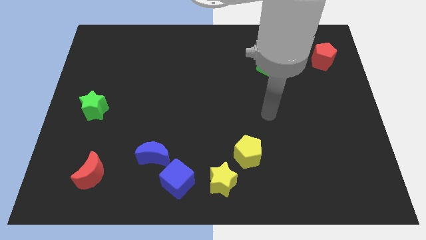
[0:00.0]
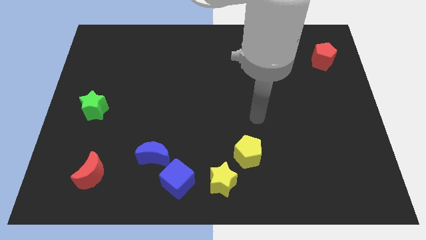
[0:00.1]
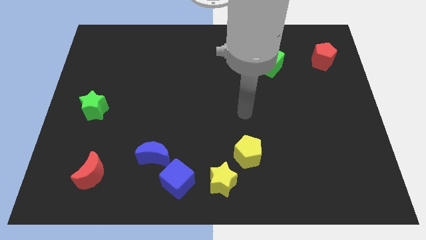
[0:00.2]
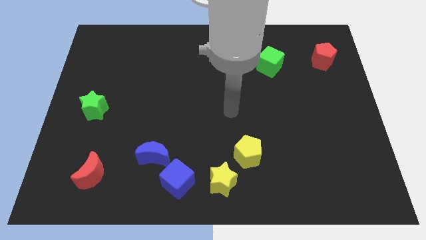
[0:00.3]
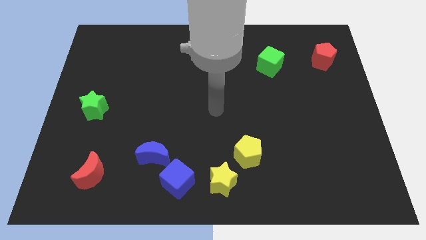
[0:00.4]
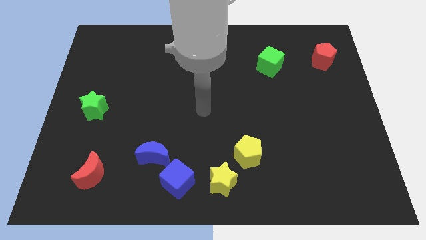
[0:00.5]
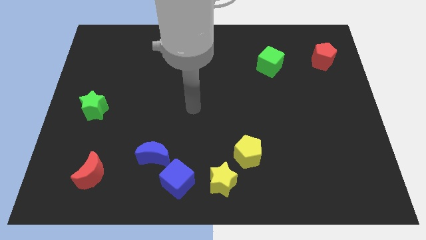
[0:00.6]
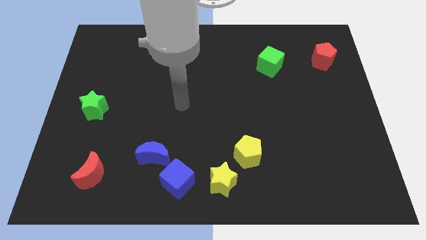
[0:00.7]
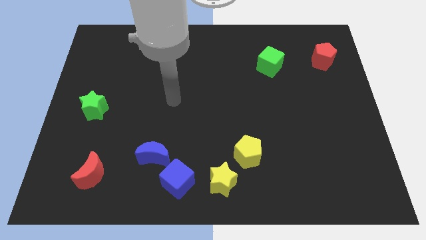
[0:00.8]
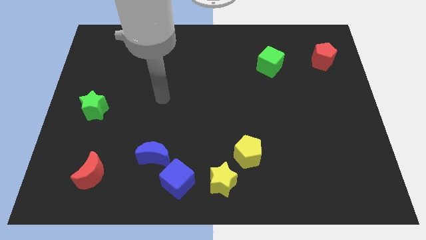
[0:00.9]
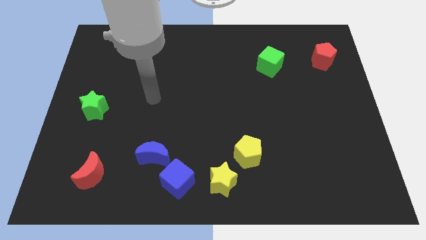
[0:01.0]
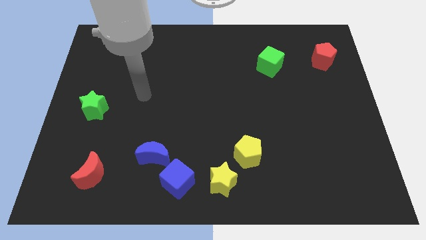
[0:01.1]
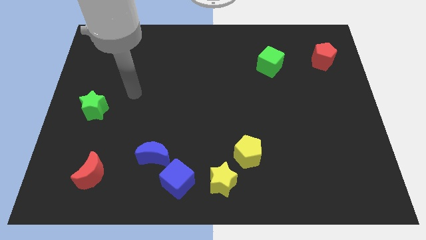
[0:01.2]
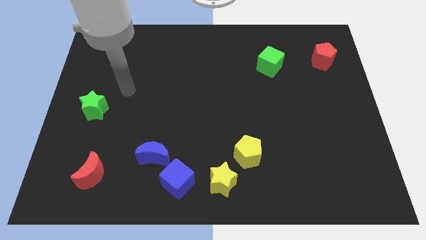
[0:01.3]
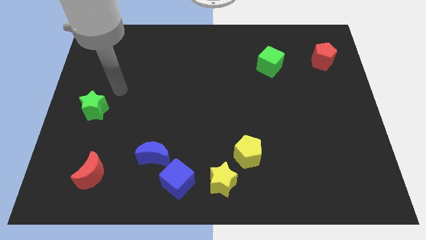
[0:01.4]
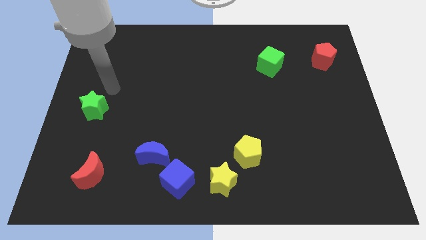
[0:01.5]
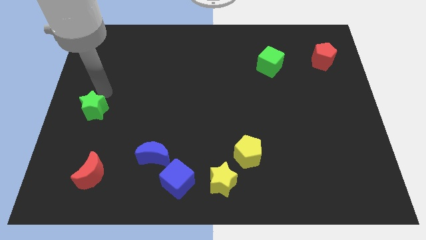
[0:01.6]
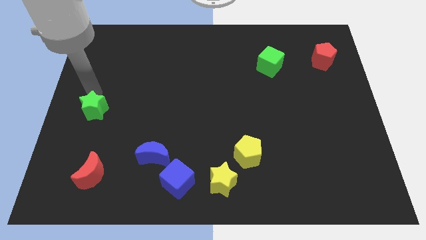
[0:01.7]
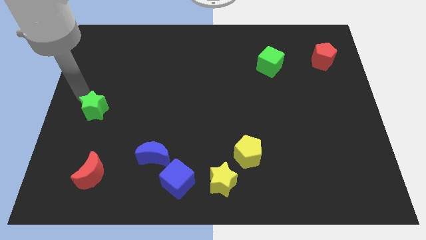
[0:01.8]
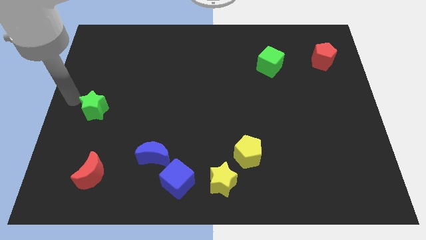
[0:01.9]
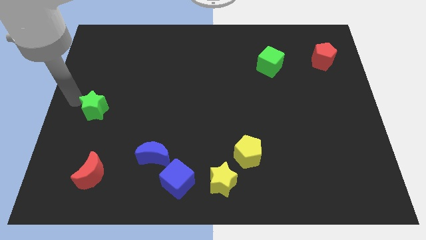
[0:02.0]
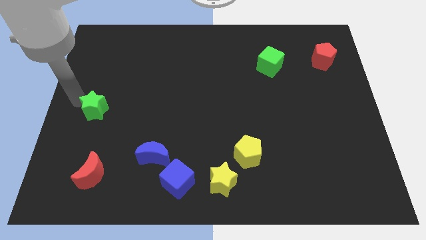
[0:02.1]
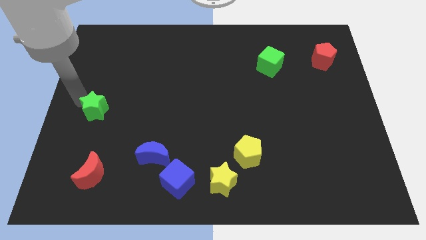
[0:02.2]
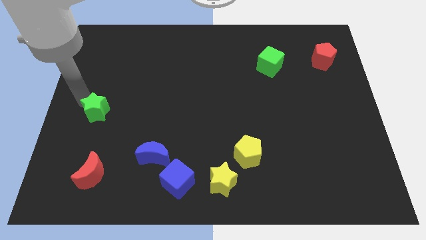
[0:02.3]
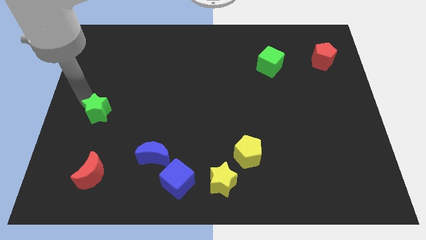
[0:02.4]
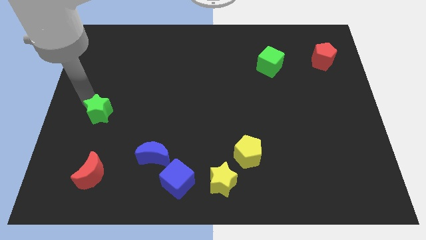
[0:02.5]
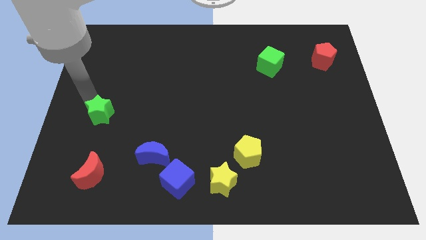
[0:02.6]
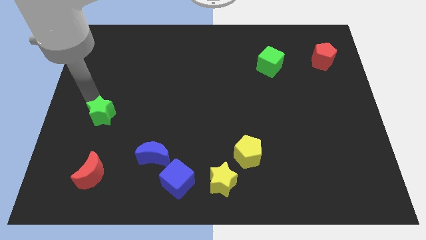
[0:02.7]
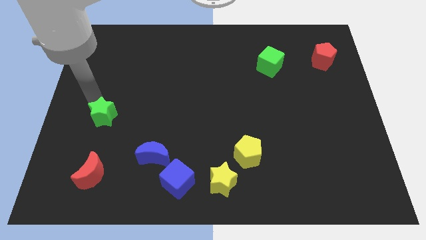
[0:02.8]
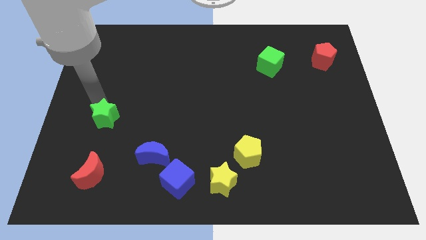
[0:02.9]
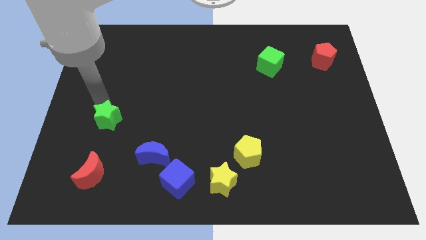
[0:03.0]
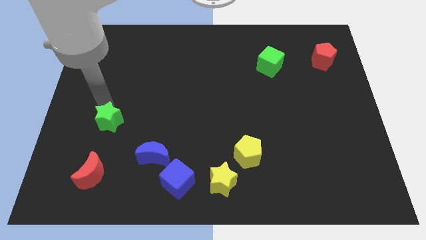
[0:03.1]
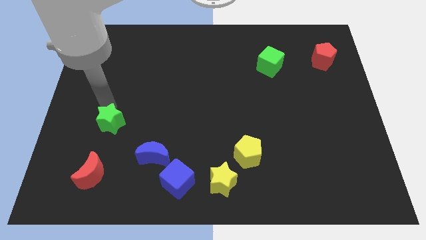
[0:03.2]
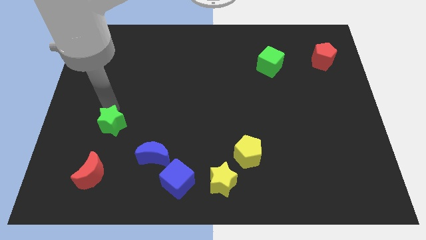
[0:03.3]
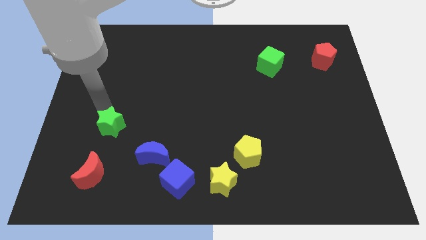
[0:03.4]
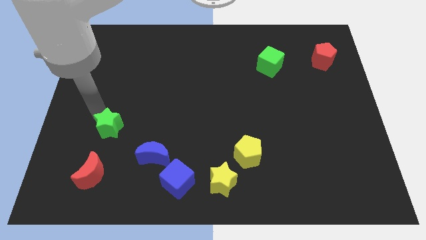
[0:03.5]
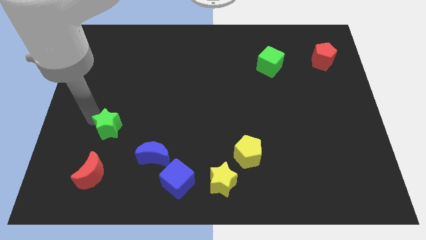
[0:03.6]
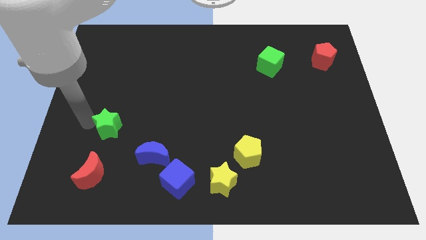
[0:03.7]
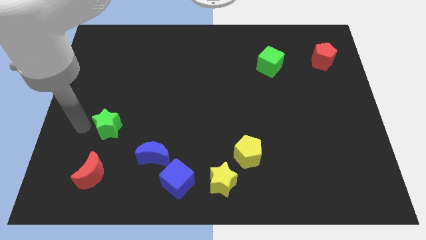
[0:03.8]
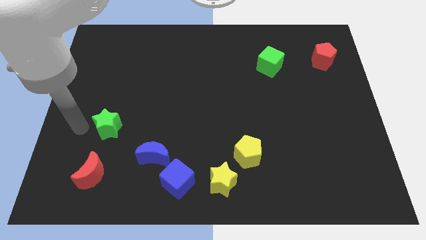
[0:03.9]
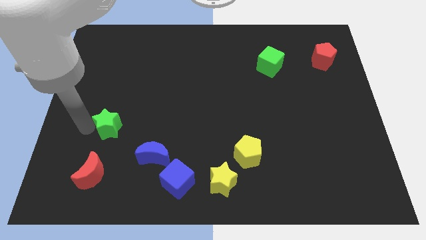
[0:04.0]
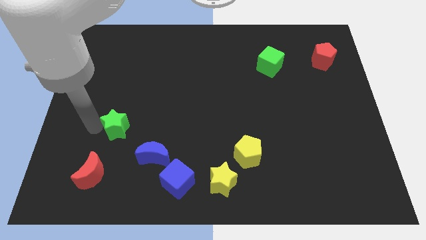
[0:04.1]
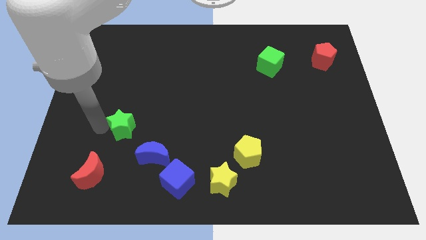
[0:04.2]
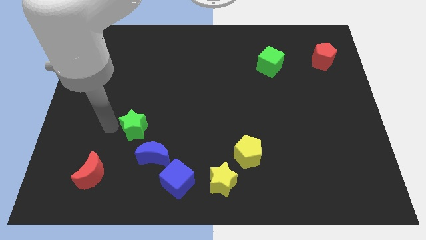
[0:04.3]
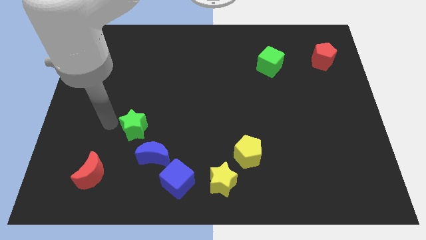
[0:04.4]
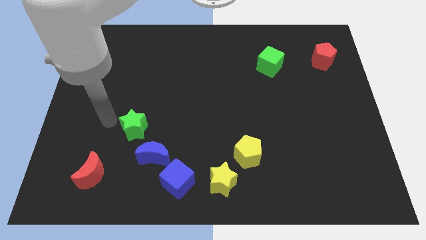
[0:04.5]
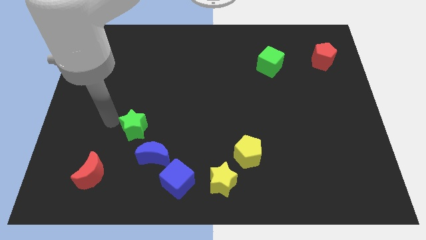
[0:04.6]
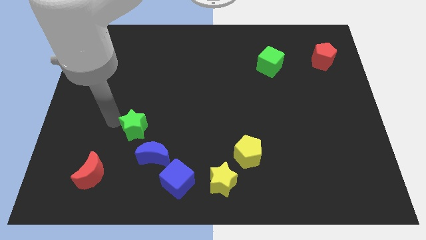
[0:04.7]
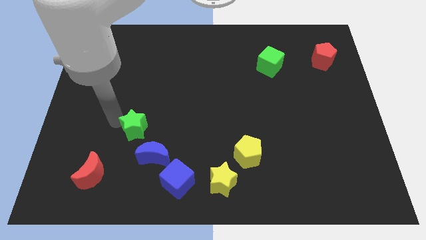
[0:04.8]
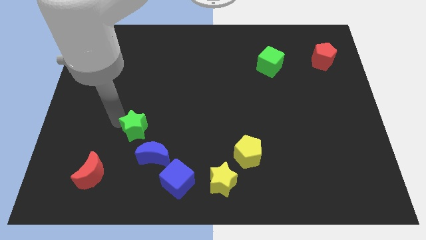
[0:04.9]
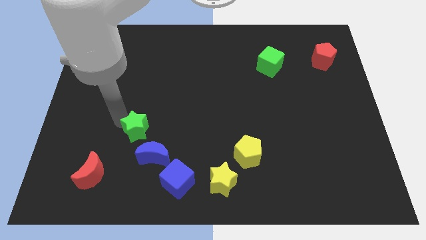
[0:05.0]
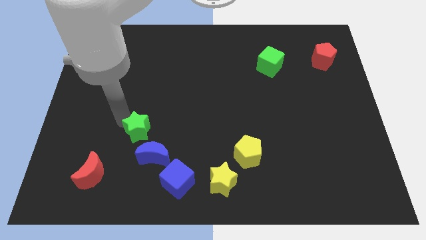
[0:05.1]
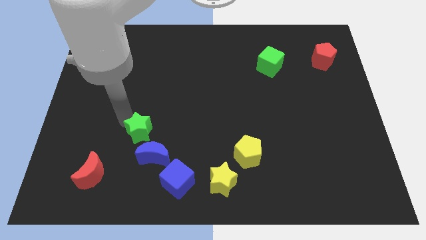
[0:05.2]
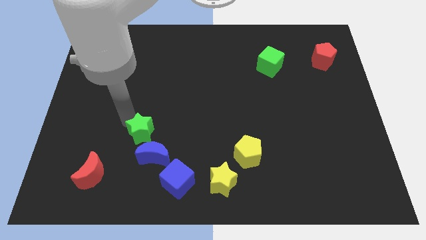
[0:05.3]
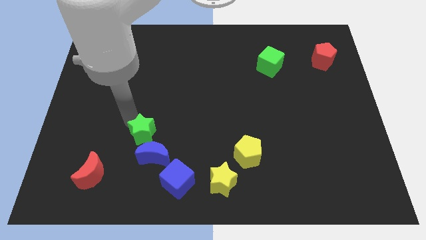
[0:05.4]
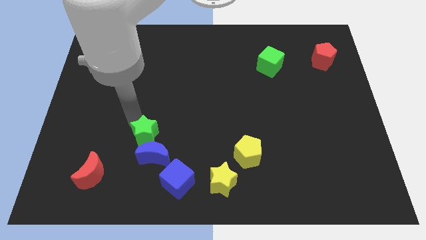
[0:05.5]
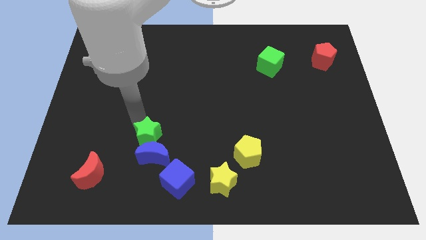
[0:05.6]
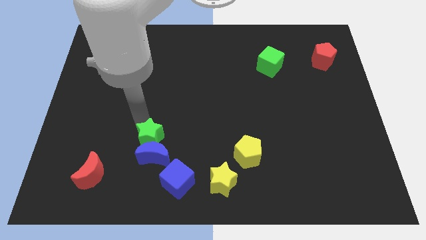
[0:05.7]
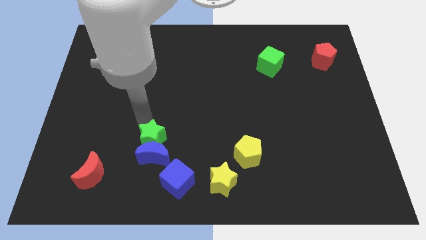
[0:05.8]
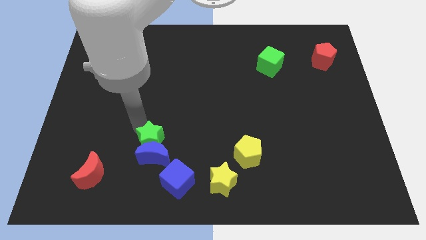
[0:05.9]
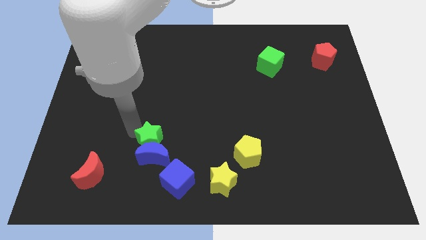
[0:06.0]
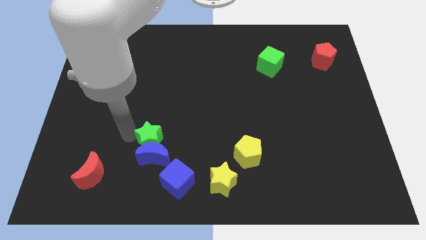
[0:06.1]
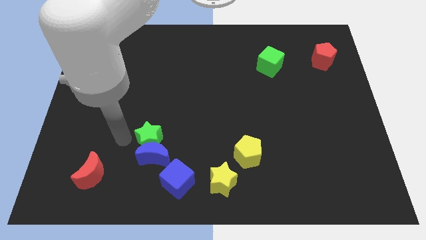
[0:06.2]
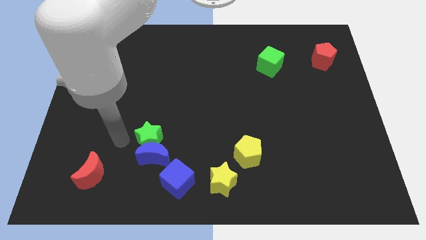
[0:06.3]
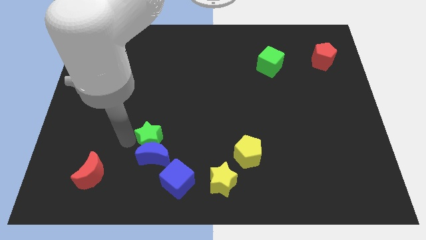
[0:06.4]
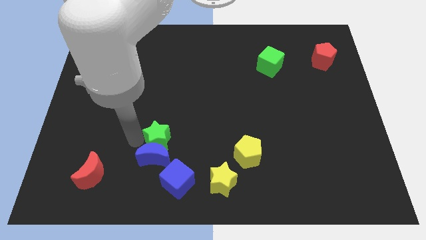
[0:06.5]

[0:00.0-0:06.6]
put the green star to the top side of the blue cube

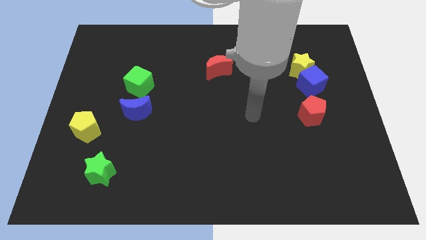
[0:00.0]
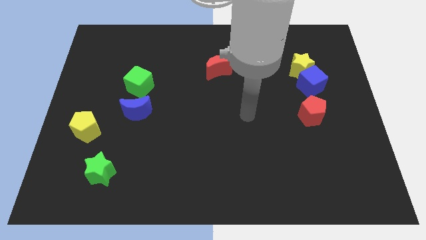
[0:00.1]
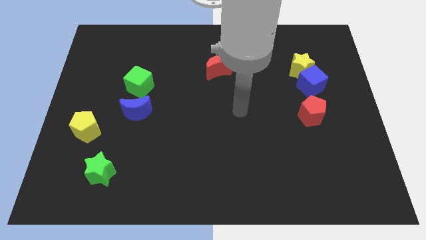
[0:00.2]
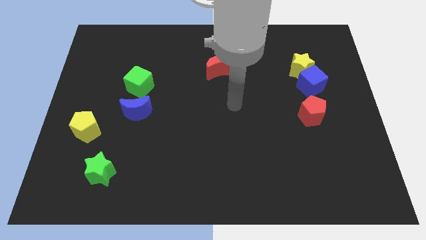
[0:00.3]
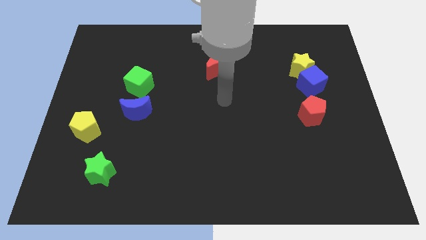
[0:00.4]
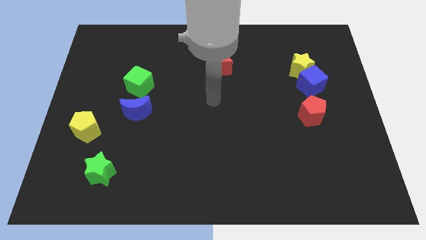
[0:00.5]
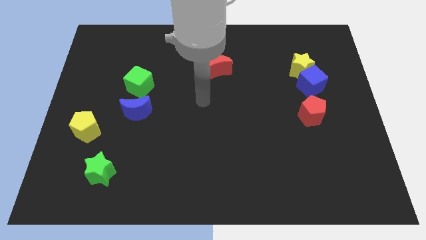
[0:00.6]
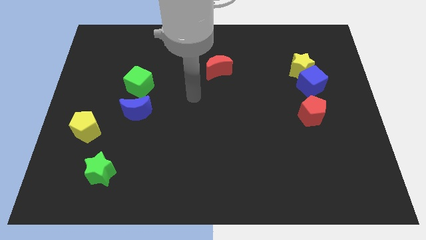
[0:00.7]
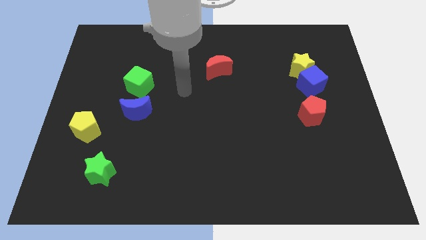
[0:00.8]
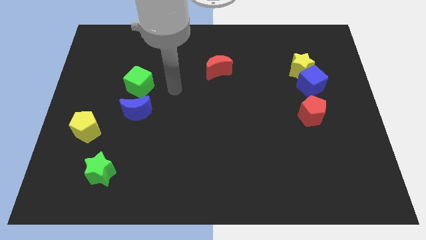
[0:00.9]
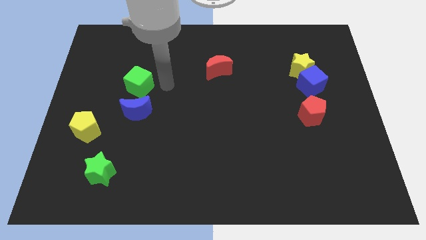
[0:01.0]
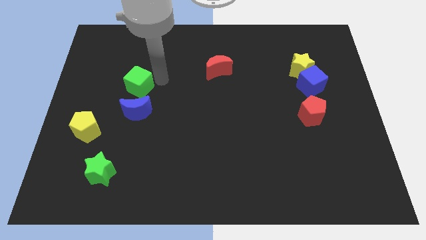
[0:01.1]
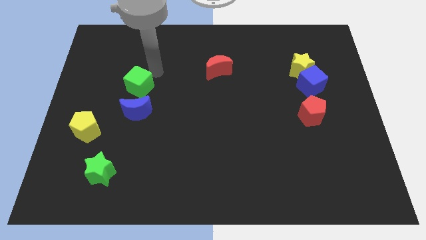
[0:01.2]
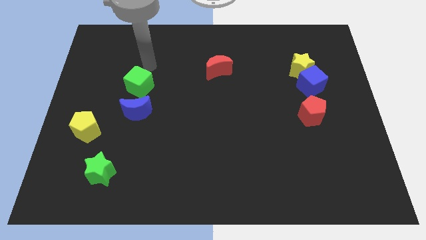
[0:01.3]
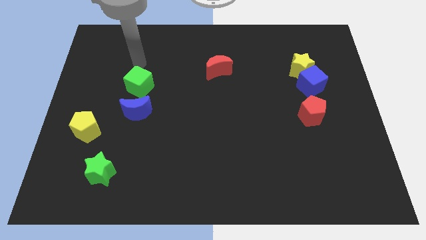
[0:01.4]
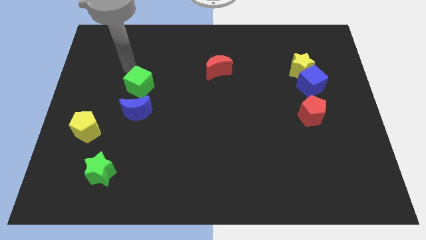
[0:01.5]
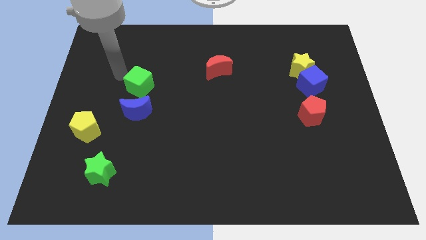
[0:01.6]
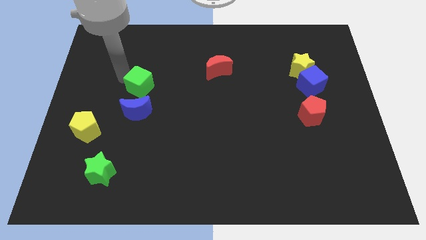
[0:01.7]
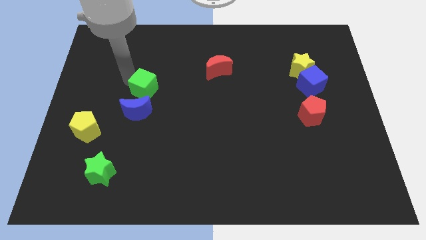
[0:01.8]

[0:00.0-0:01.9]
slide the green cube to the top right of the blue moon
